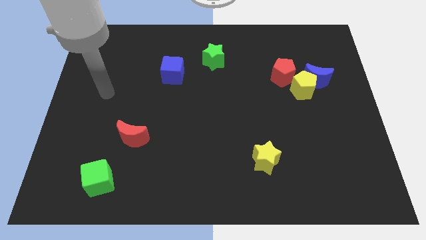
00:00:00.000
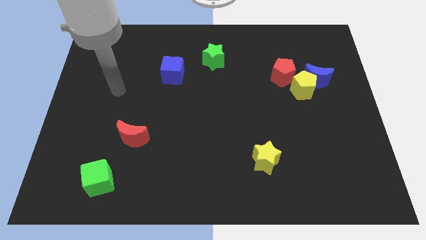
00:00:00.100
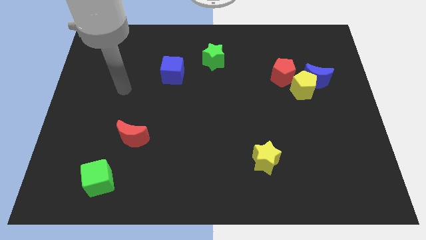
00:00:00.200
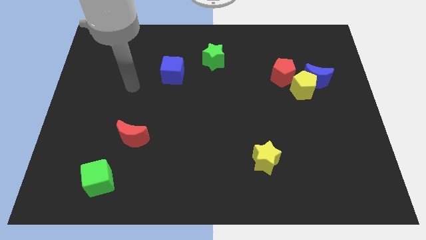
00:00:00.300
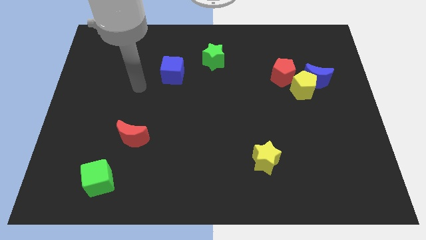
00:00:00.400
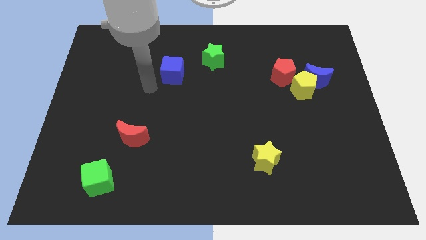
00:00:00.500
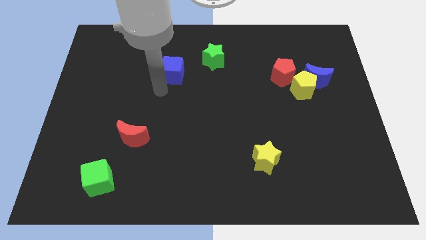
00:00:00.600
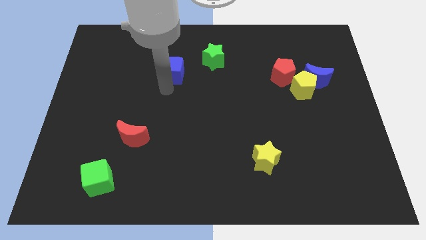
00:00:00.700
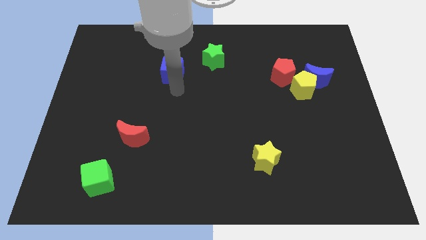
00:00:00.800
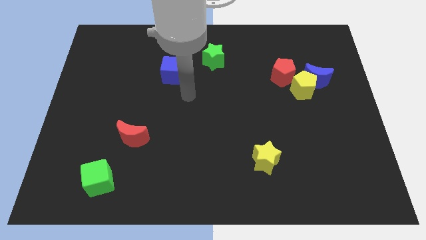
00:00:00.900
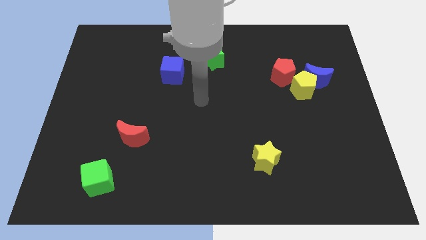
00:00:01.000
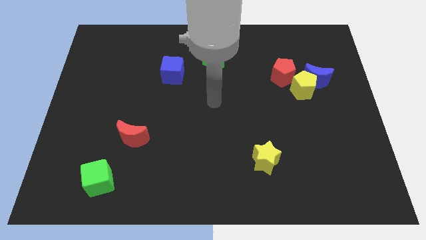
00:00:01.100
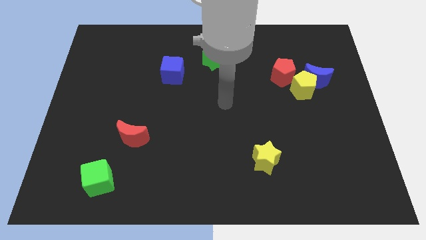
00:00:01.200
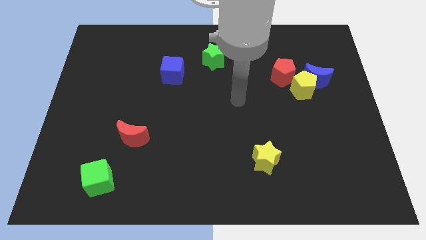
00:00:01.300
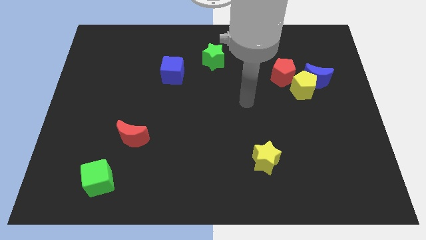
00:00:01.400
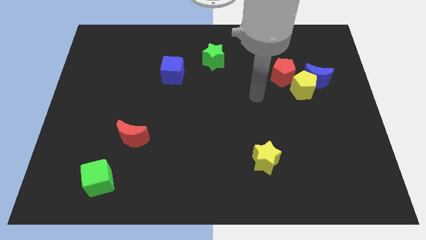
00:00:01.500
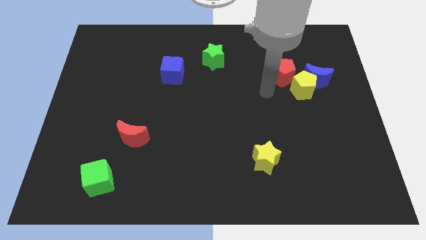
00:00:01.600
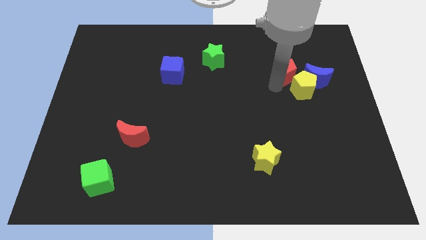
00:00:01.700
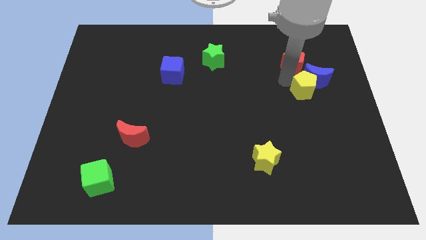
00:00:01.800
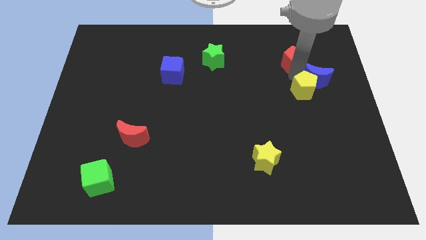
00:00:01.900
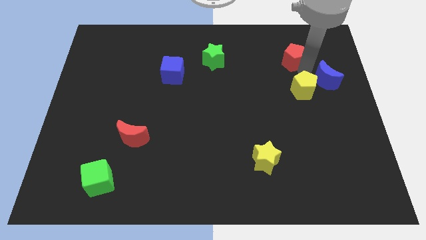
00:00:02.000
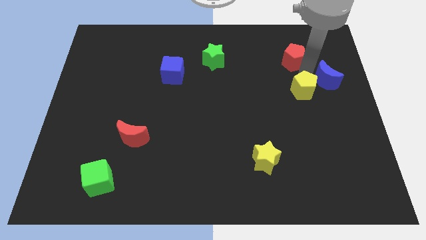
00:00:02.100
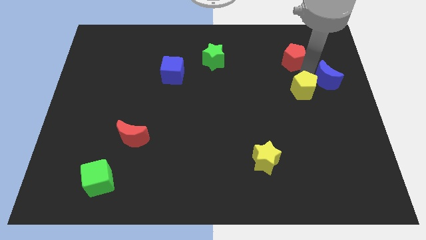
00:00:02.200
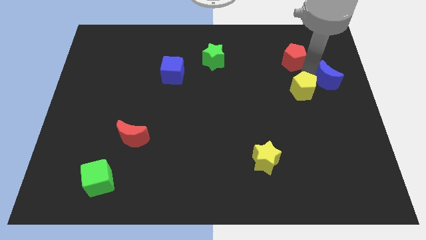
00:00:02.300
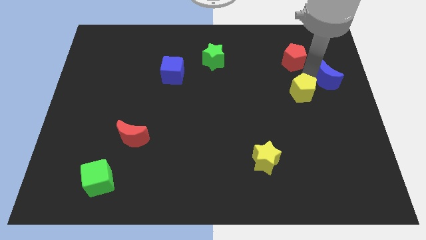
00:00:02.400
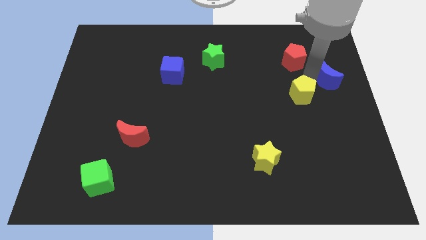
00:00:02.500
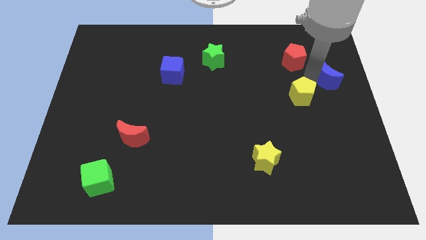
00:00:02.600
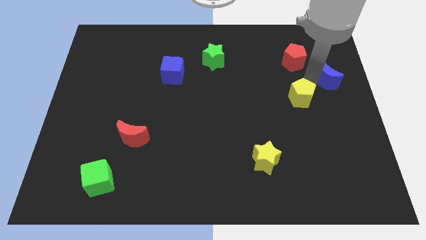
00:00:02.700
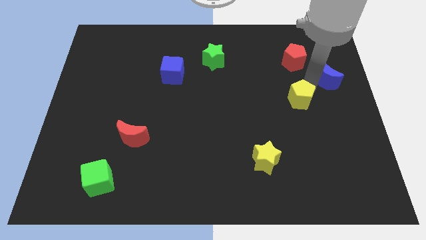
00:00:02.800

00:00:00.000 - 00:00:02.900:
pull the yellow pentagon apart from the blue moon and red pentagon

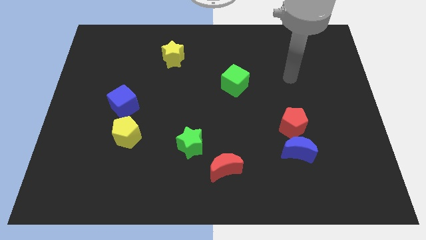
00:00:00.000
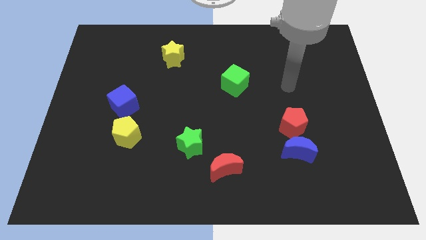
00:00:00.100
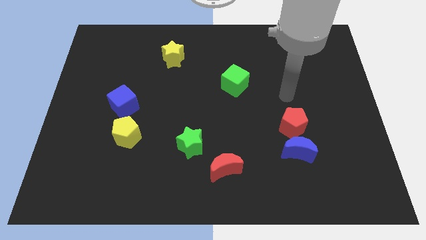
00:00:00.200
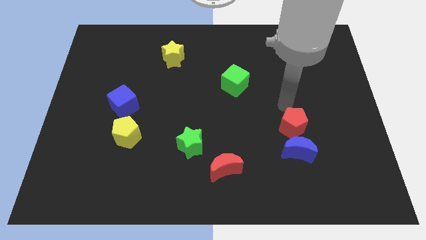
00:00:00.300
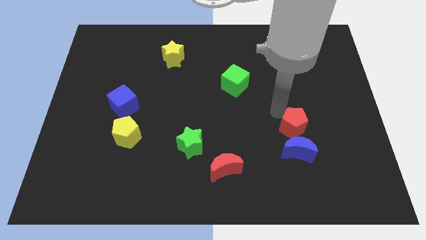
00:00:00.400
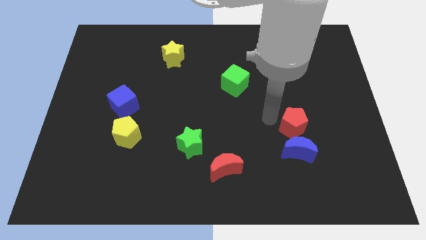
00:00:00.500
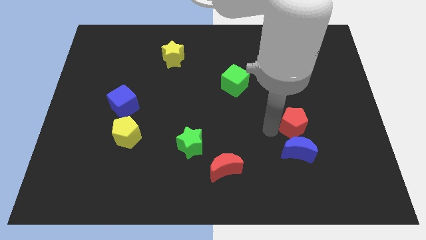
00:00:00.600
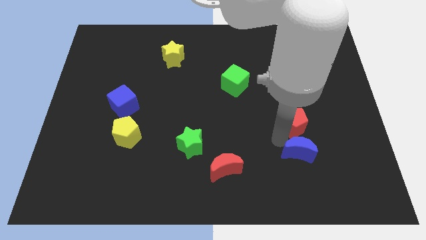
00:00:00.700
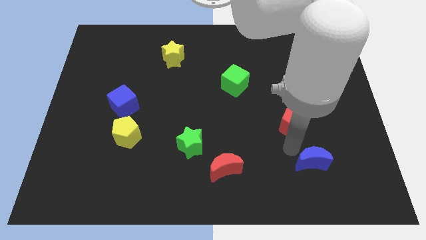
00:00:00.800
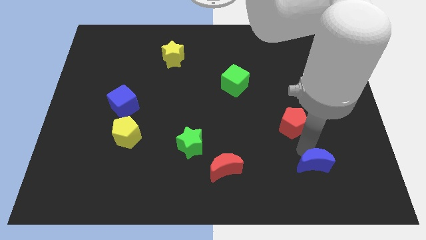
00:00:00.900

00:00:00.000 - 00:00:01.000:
pull the red pentagon apart from the blue moon

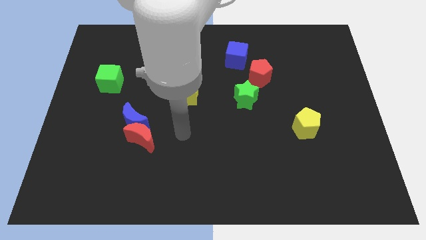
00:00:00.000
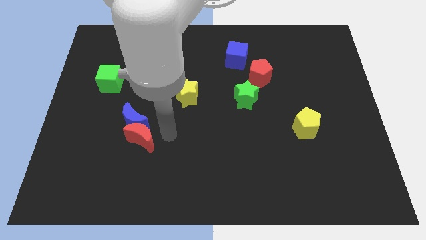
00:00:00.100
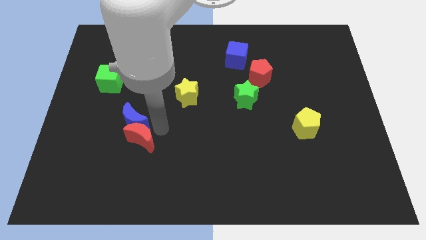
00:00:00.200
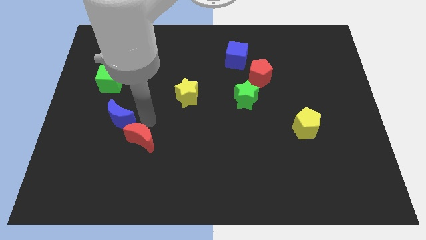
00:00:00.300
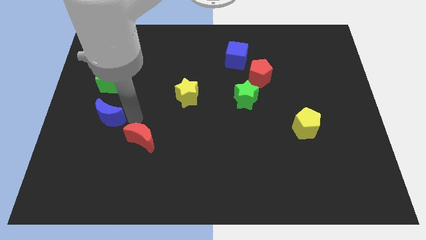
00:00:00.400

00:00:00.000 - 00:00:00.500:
move the red moon away from the blue moon

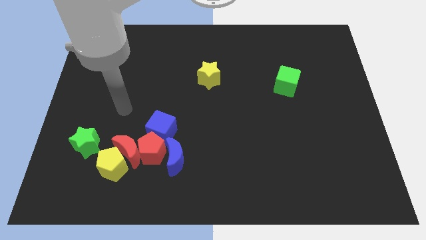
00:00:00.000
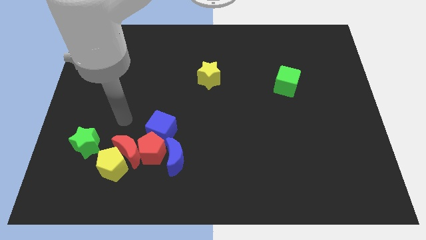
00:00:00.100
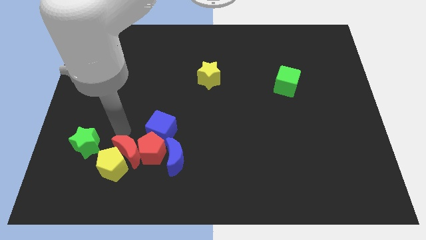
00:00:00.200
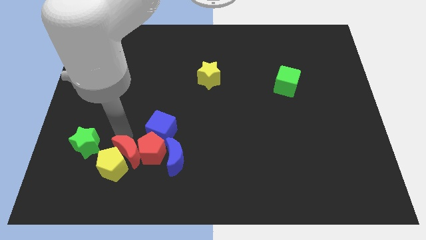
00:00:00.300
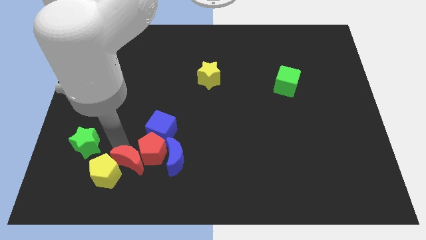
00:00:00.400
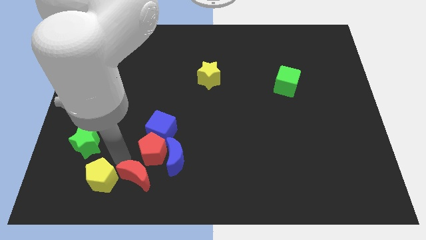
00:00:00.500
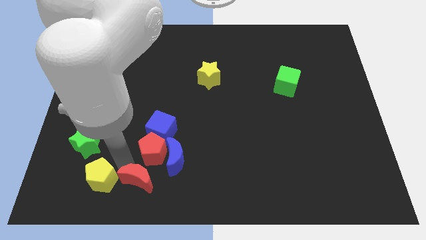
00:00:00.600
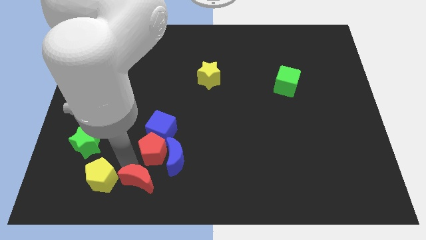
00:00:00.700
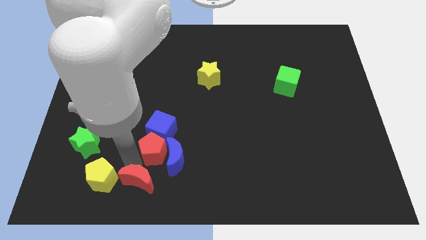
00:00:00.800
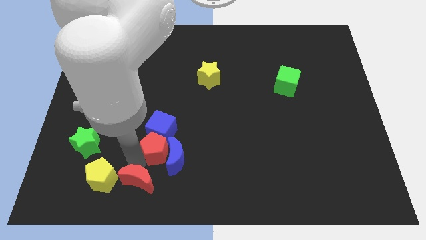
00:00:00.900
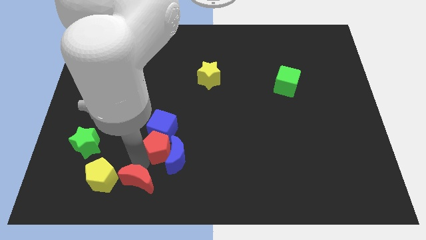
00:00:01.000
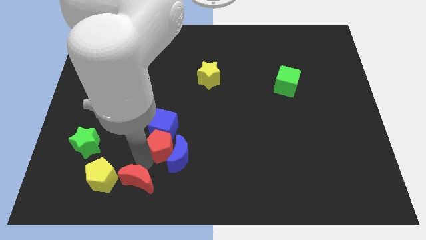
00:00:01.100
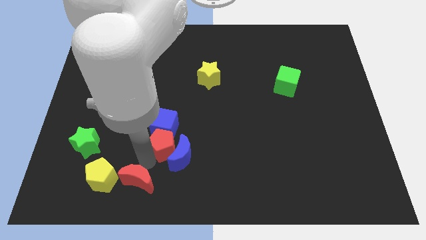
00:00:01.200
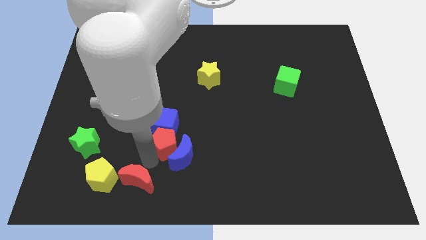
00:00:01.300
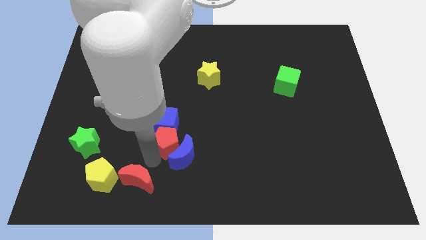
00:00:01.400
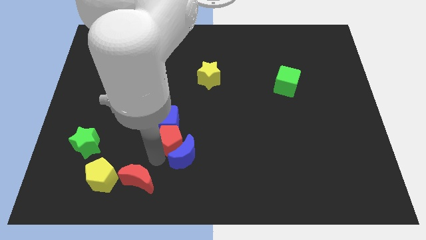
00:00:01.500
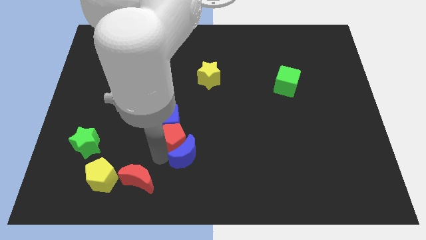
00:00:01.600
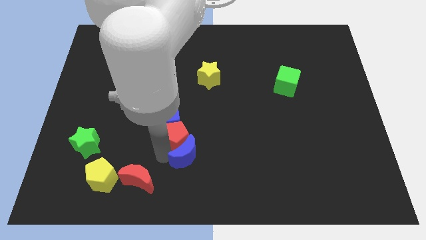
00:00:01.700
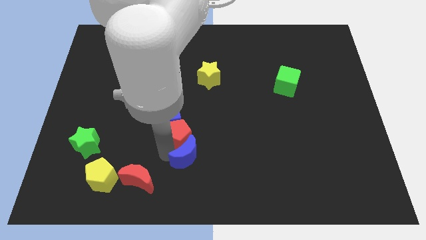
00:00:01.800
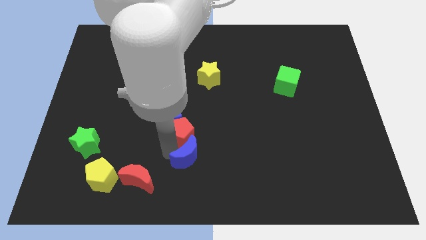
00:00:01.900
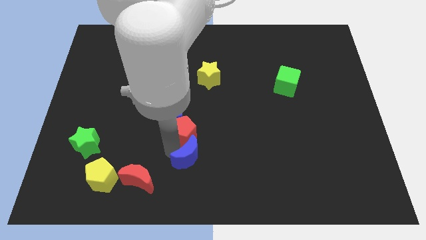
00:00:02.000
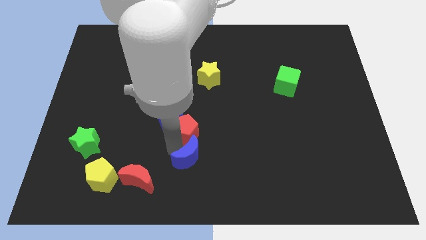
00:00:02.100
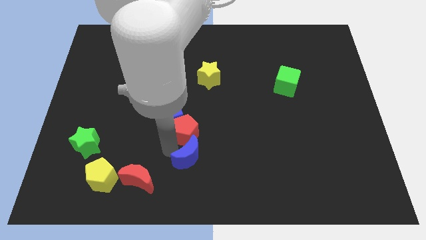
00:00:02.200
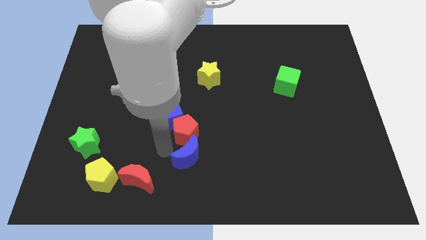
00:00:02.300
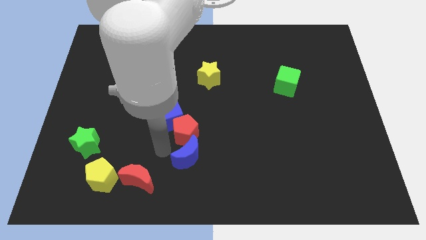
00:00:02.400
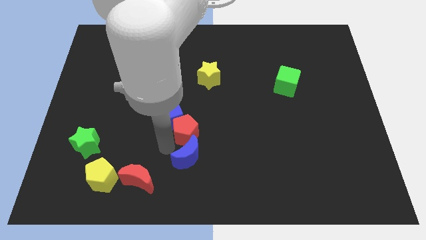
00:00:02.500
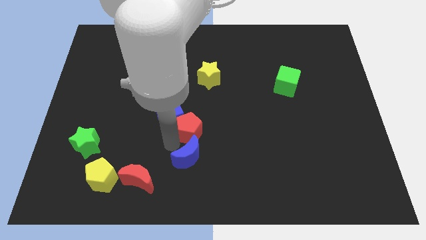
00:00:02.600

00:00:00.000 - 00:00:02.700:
pull the red pentagon apart from the group of blocks

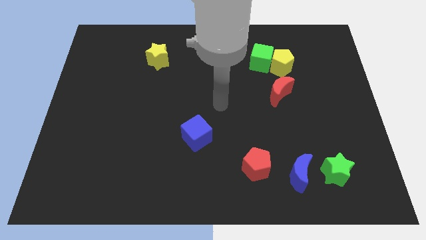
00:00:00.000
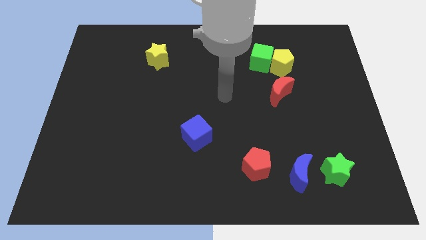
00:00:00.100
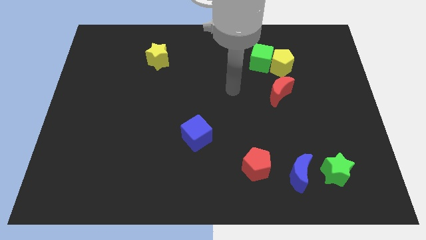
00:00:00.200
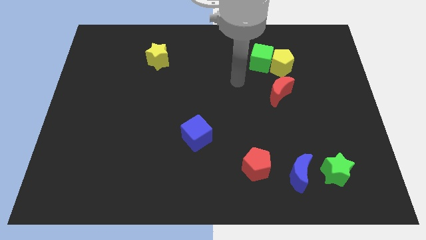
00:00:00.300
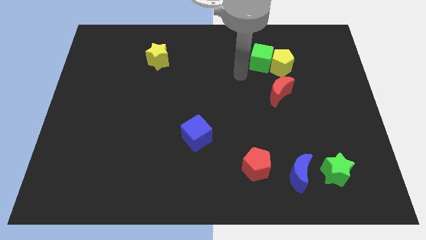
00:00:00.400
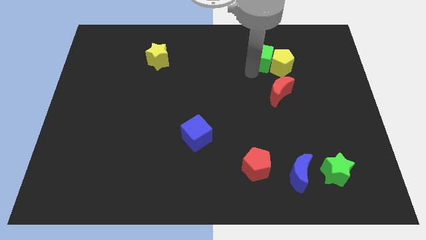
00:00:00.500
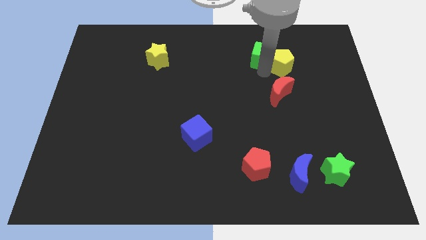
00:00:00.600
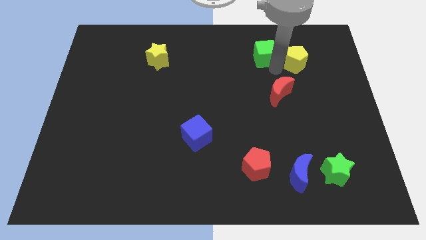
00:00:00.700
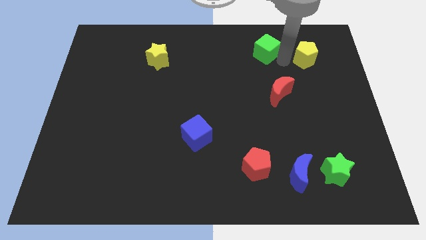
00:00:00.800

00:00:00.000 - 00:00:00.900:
move the green cube away from the yellow pentagon

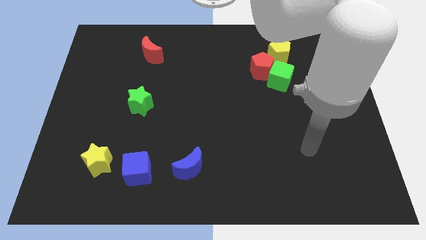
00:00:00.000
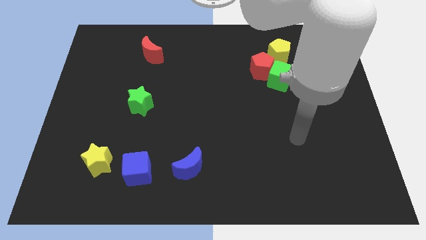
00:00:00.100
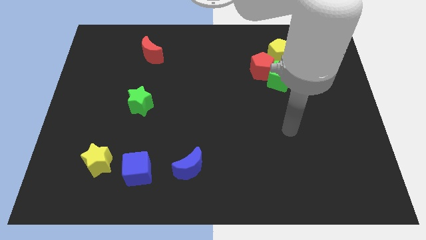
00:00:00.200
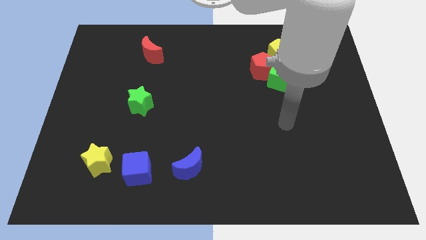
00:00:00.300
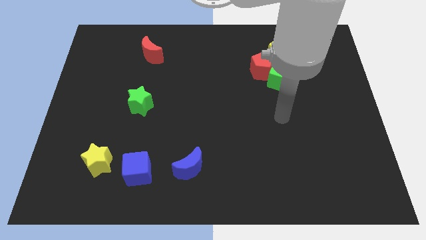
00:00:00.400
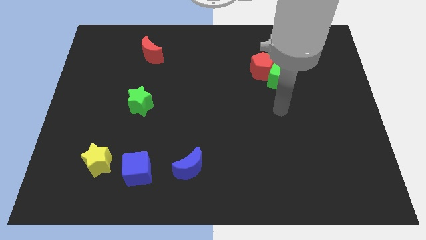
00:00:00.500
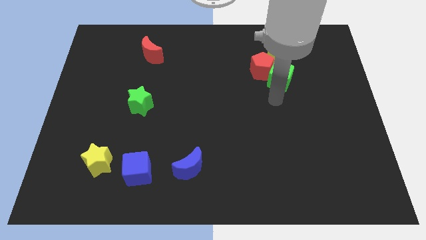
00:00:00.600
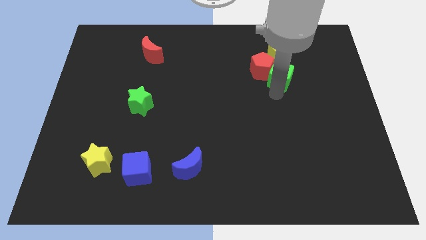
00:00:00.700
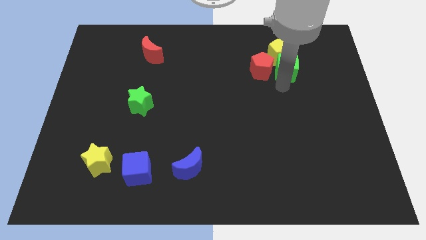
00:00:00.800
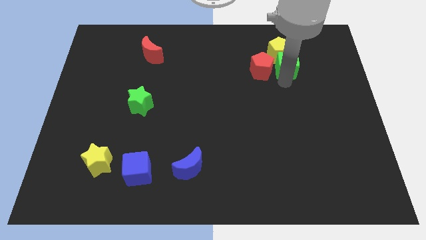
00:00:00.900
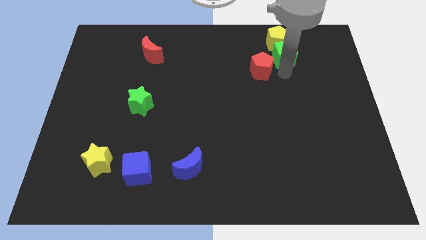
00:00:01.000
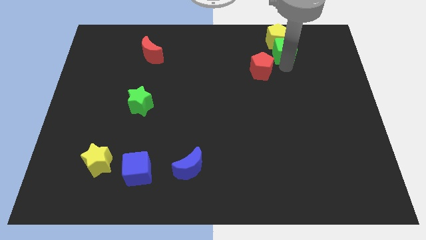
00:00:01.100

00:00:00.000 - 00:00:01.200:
move the red pentagon away from the green cube and yellow pentagon

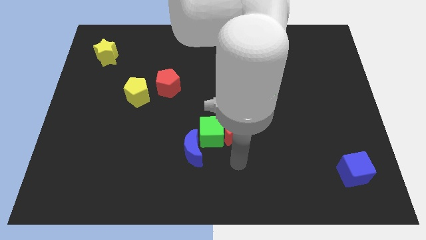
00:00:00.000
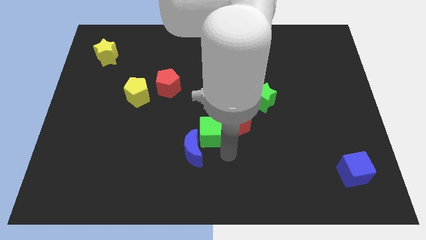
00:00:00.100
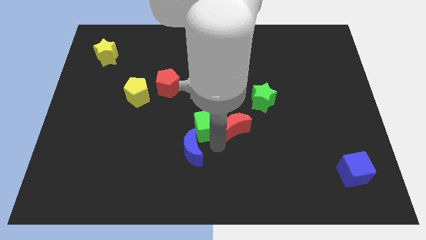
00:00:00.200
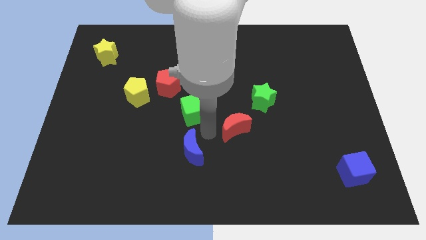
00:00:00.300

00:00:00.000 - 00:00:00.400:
pull the red moon apart from the green cube
